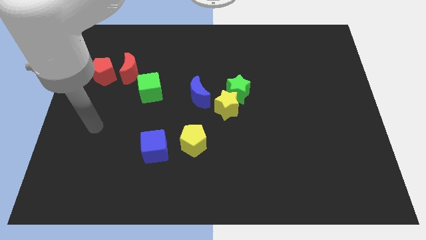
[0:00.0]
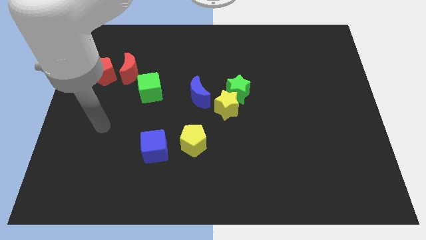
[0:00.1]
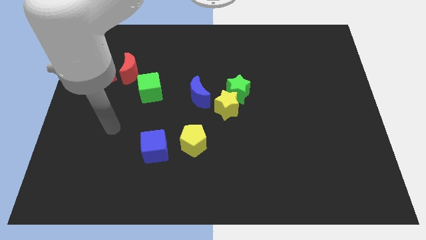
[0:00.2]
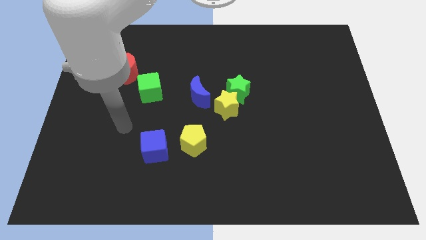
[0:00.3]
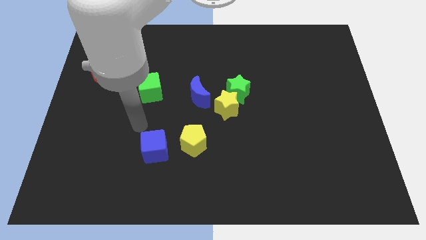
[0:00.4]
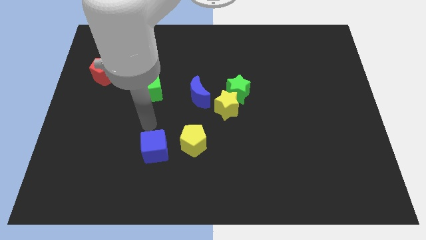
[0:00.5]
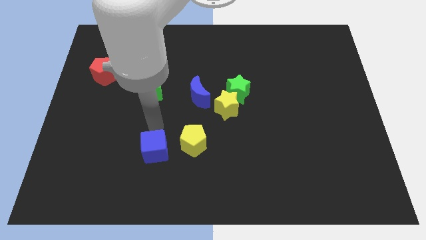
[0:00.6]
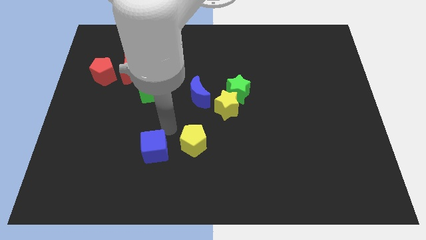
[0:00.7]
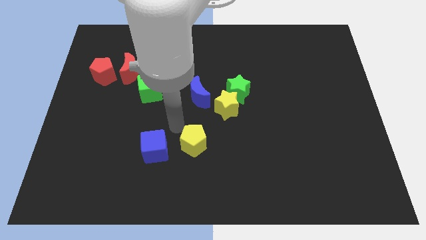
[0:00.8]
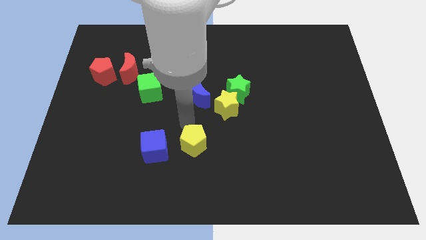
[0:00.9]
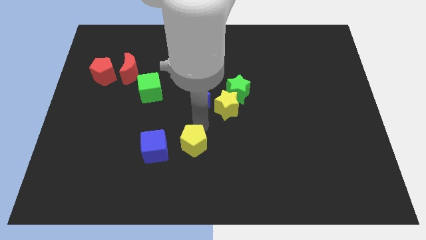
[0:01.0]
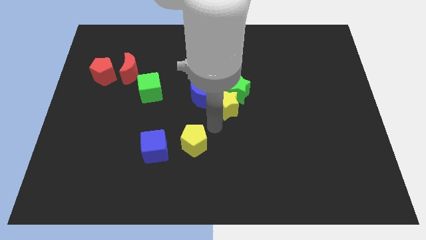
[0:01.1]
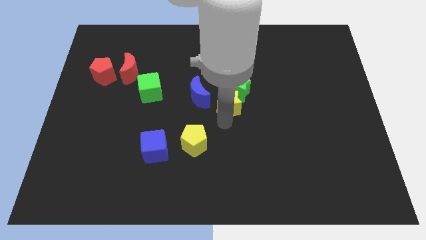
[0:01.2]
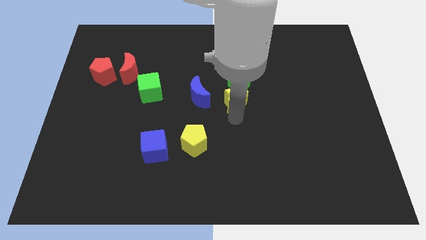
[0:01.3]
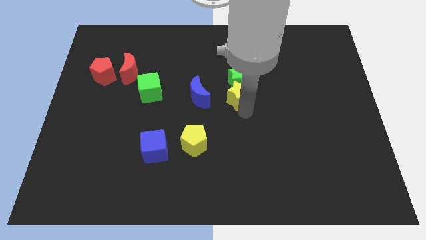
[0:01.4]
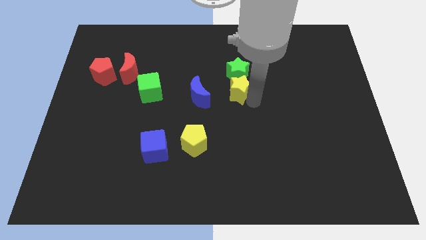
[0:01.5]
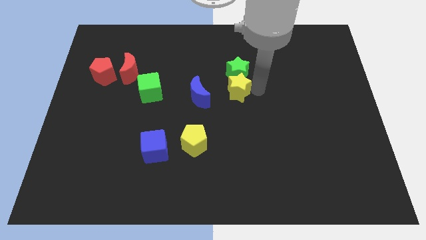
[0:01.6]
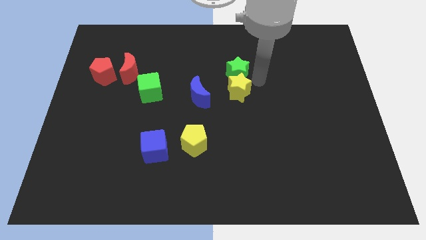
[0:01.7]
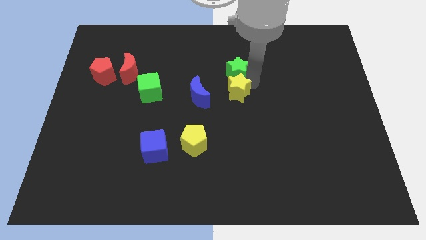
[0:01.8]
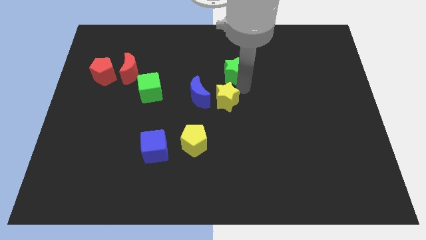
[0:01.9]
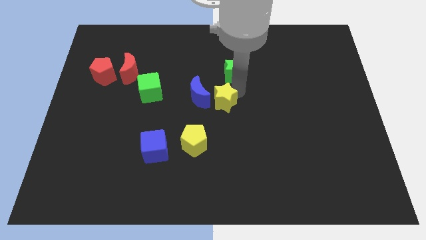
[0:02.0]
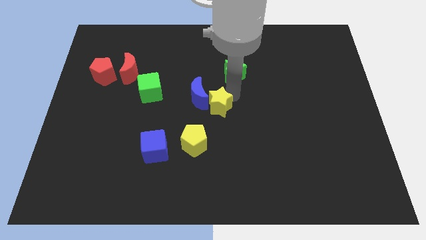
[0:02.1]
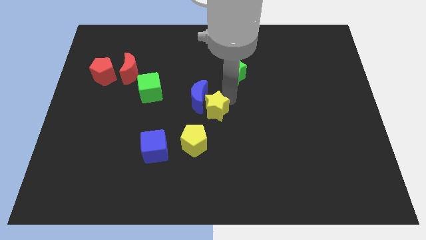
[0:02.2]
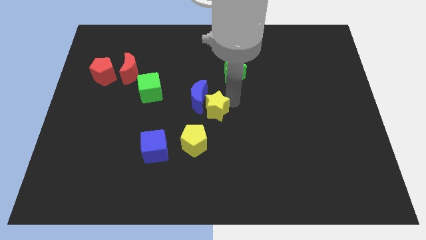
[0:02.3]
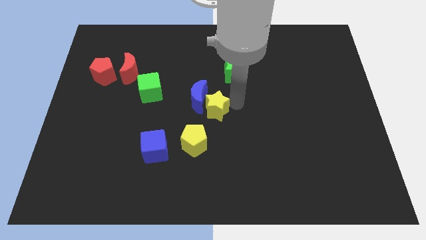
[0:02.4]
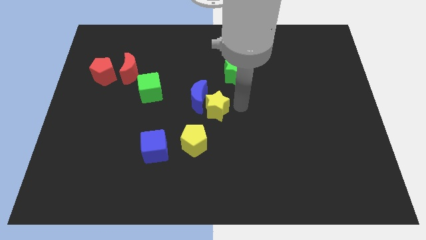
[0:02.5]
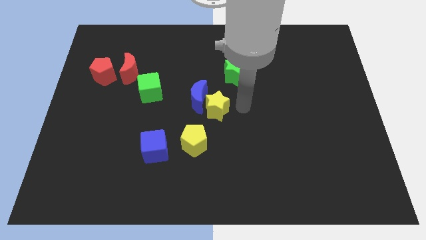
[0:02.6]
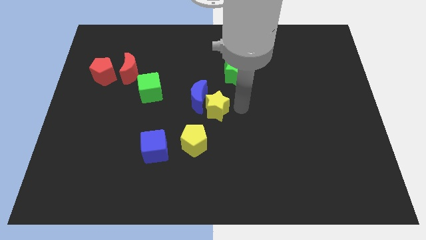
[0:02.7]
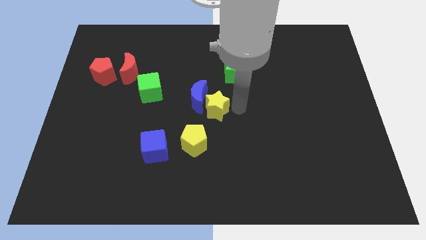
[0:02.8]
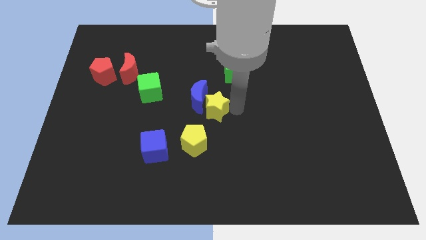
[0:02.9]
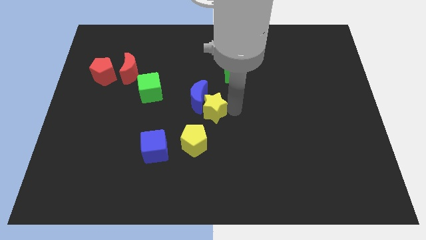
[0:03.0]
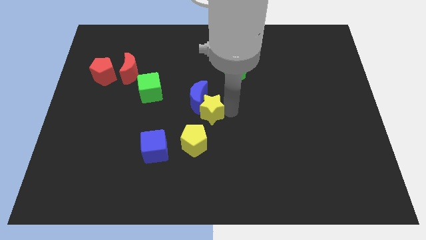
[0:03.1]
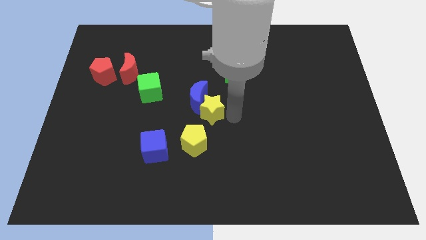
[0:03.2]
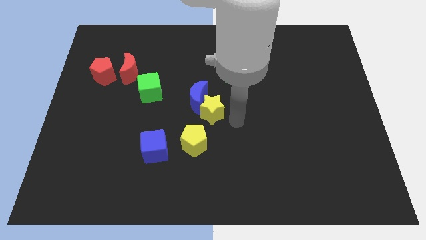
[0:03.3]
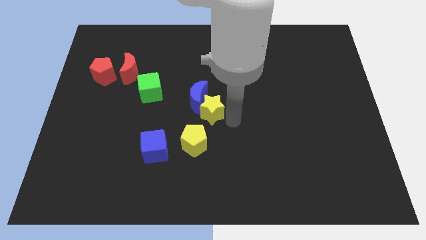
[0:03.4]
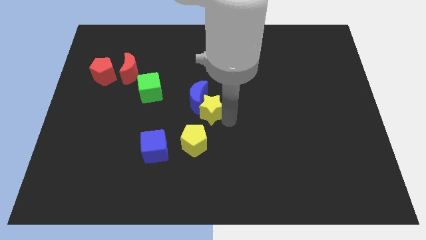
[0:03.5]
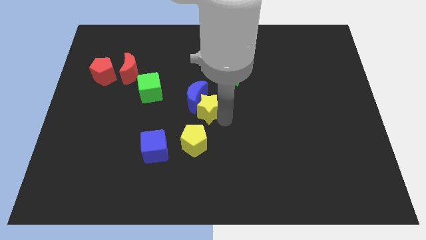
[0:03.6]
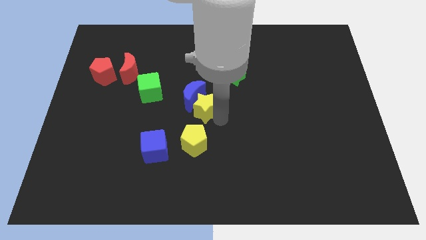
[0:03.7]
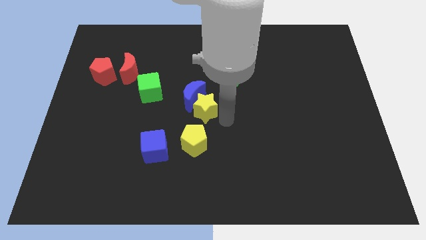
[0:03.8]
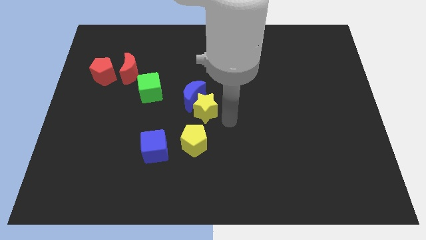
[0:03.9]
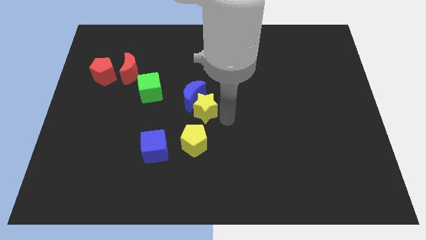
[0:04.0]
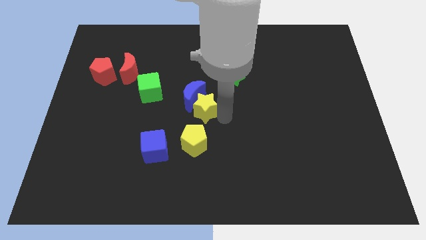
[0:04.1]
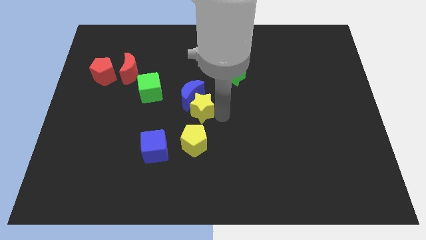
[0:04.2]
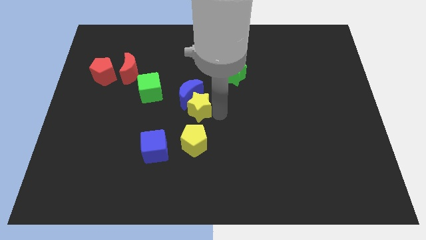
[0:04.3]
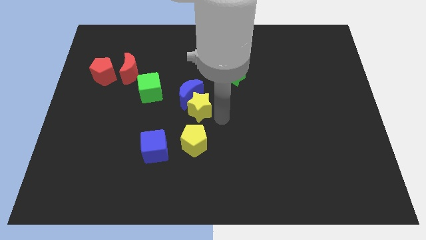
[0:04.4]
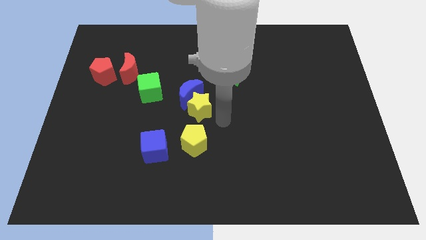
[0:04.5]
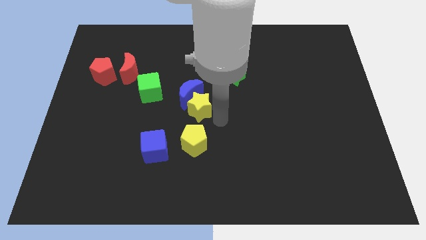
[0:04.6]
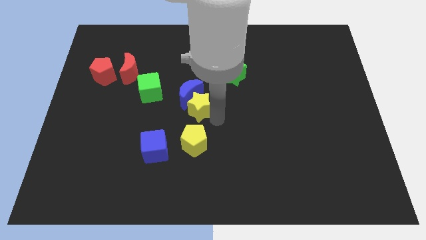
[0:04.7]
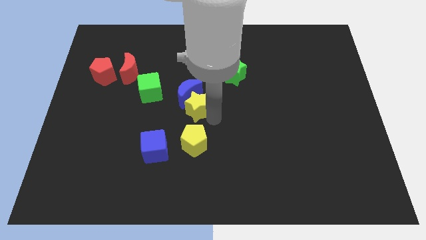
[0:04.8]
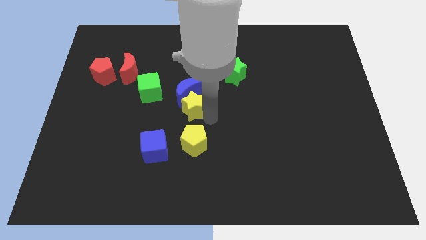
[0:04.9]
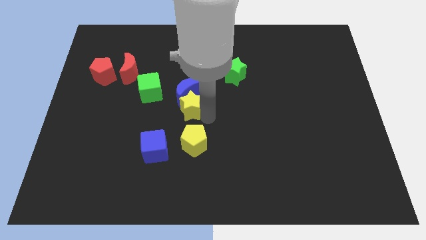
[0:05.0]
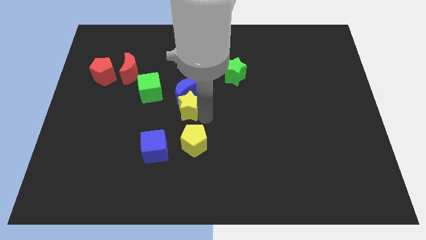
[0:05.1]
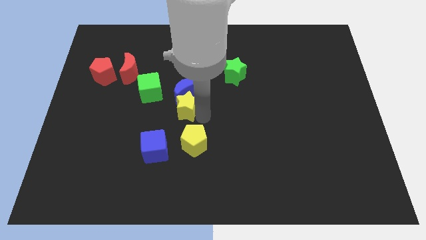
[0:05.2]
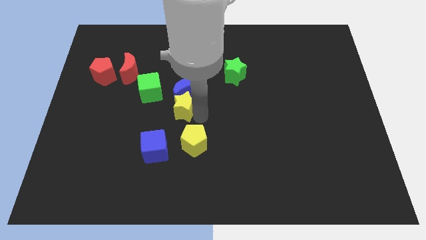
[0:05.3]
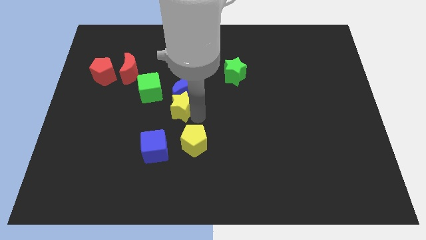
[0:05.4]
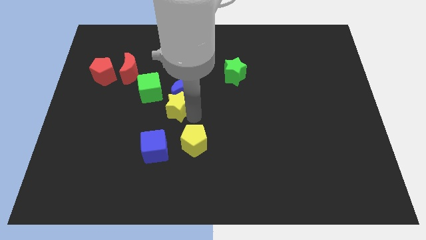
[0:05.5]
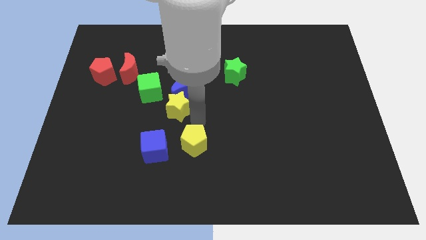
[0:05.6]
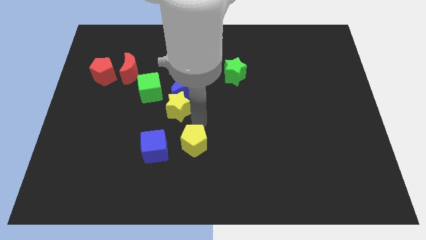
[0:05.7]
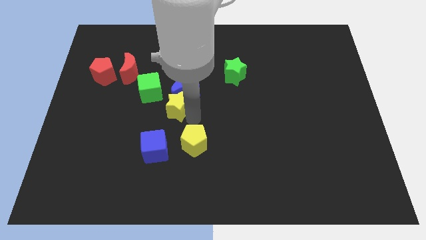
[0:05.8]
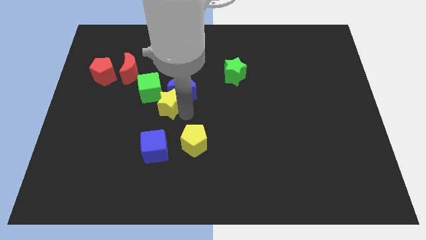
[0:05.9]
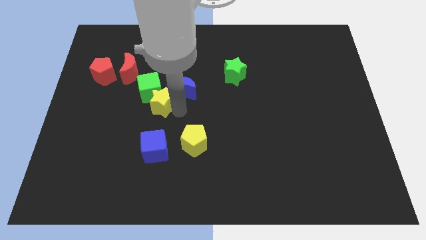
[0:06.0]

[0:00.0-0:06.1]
slide the yellow star close to the green cube

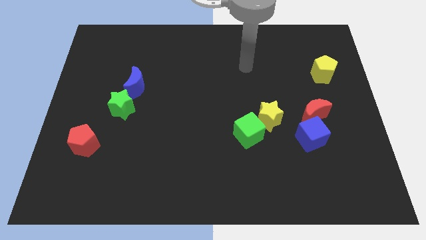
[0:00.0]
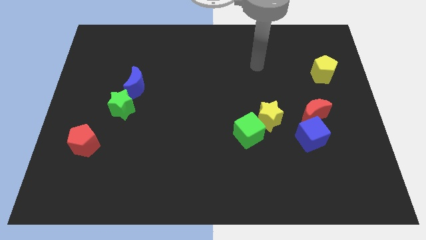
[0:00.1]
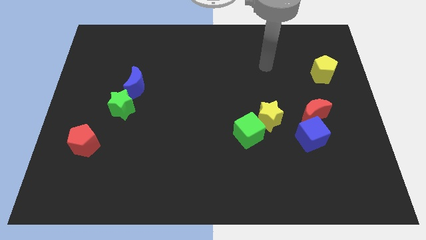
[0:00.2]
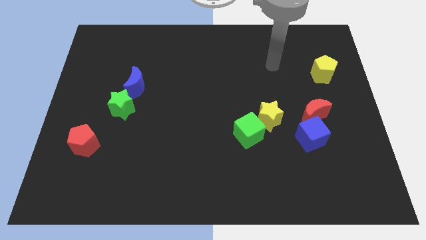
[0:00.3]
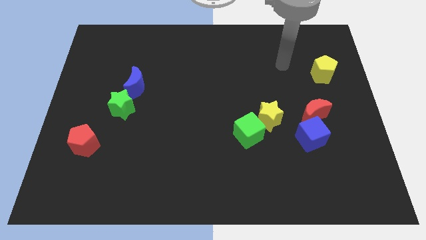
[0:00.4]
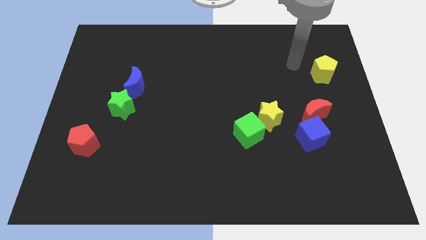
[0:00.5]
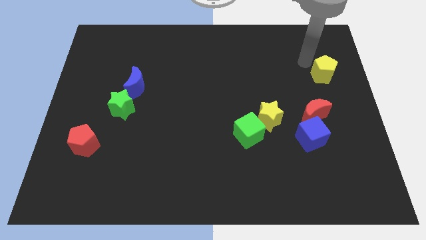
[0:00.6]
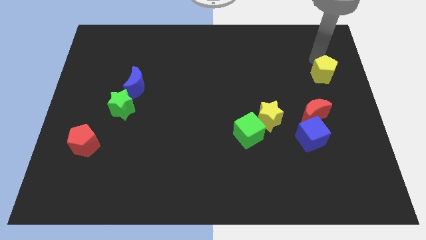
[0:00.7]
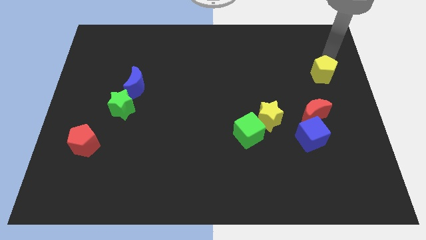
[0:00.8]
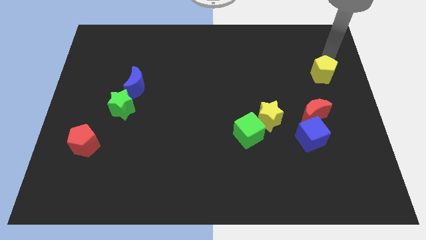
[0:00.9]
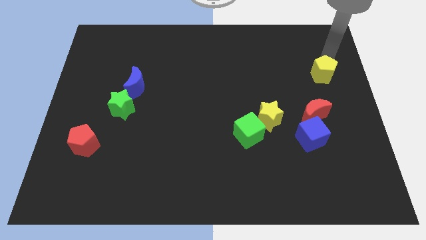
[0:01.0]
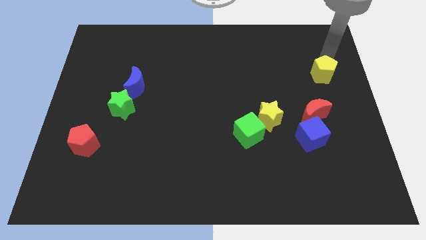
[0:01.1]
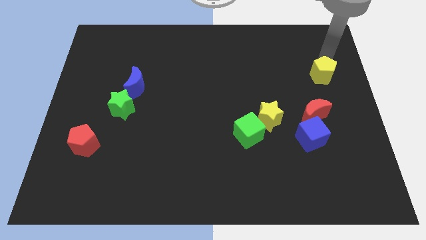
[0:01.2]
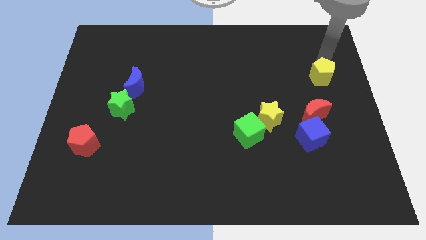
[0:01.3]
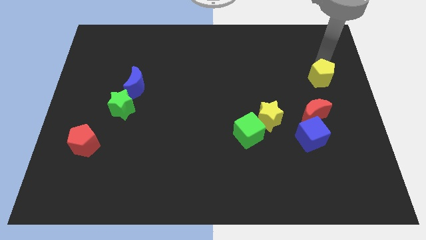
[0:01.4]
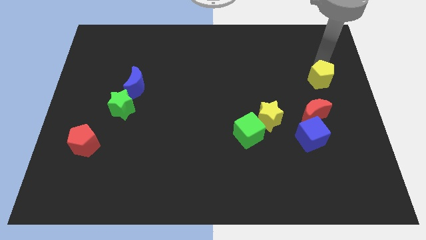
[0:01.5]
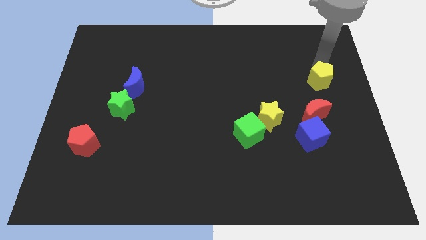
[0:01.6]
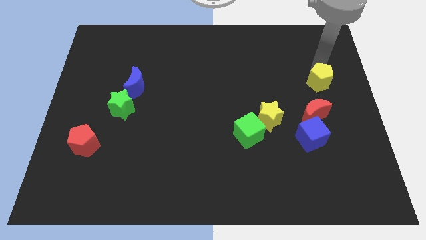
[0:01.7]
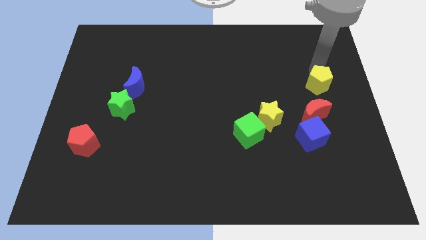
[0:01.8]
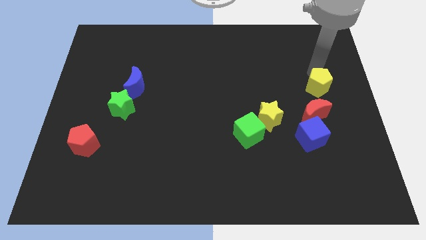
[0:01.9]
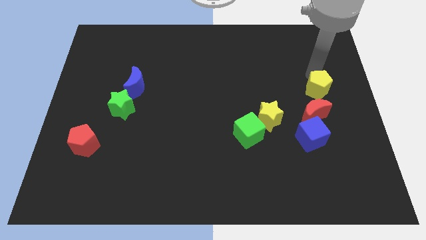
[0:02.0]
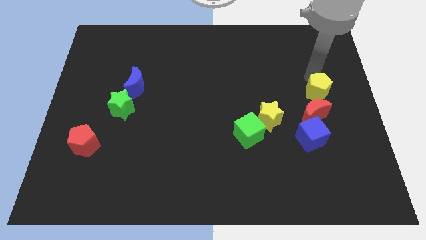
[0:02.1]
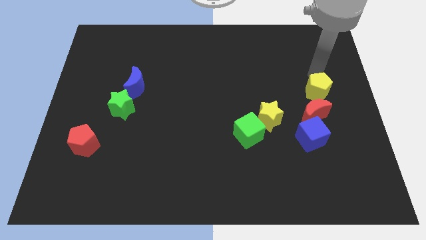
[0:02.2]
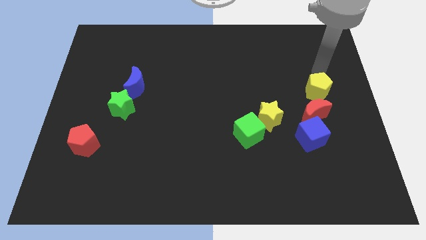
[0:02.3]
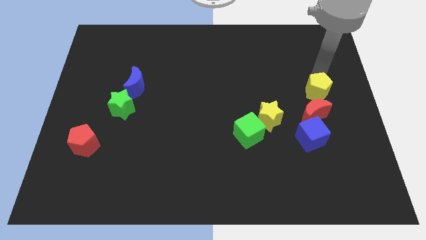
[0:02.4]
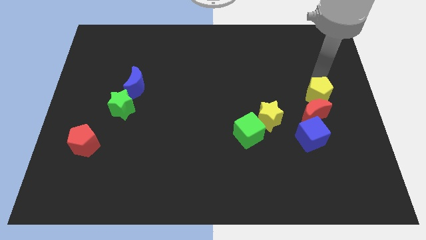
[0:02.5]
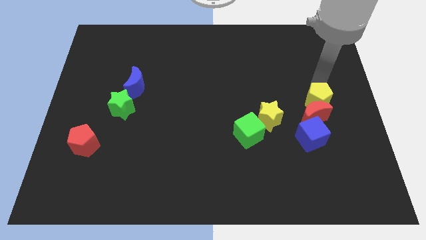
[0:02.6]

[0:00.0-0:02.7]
move the yellow pentagon to the red moon
